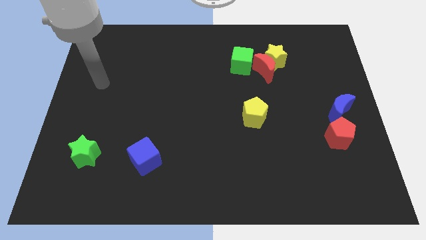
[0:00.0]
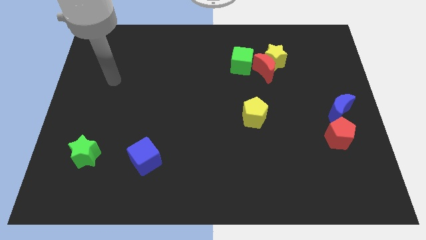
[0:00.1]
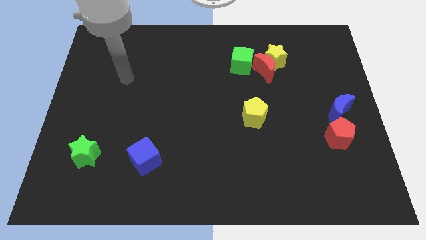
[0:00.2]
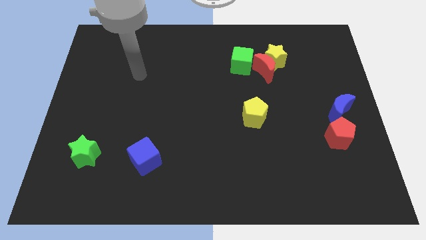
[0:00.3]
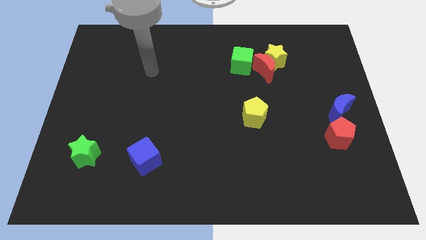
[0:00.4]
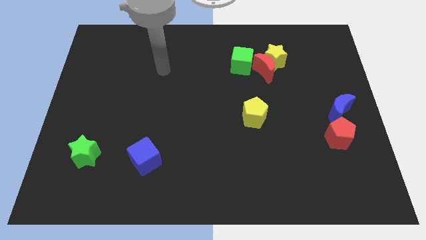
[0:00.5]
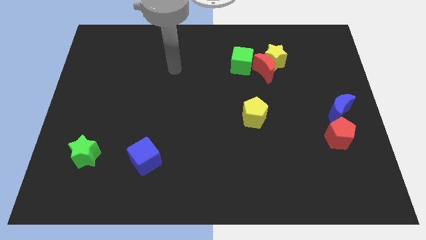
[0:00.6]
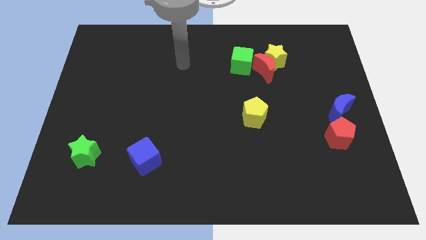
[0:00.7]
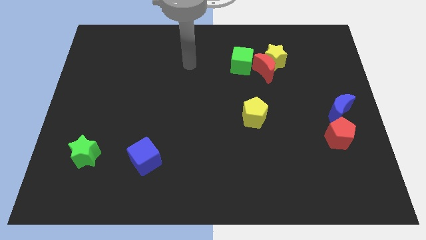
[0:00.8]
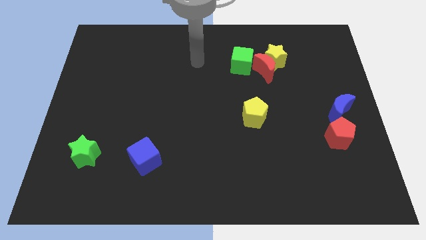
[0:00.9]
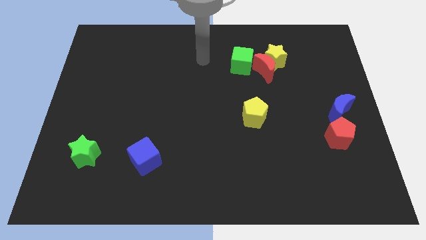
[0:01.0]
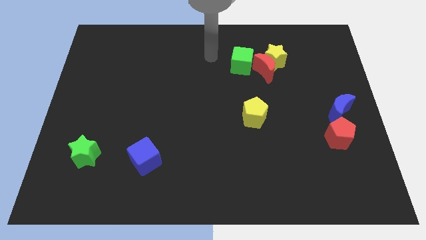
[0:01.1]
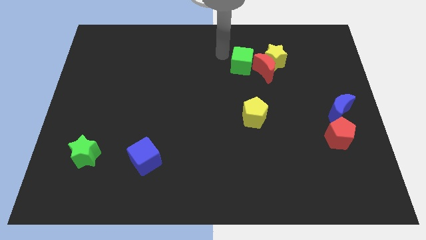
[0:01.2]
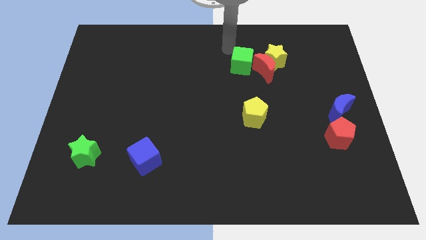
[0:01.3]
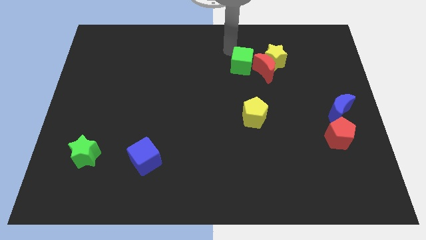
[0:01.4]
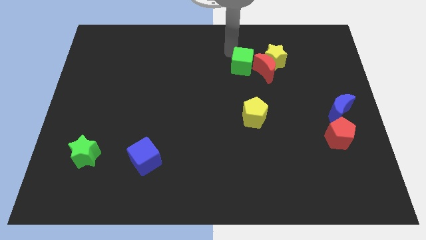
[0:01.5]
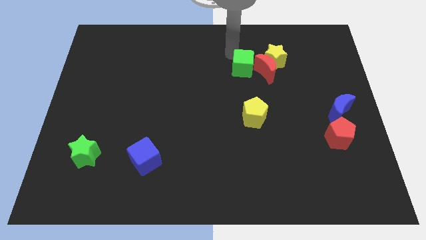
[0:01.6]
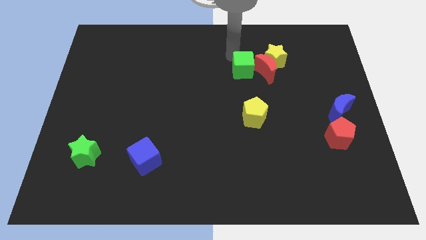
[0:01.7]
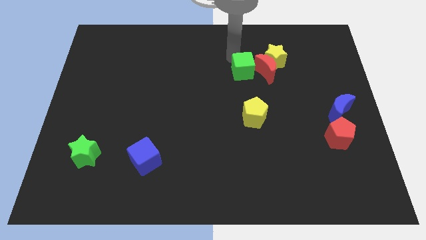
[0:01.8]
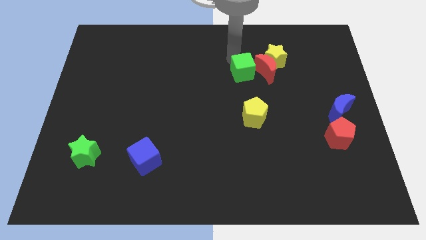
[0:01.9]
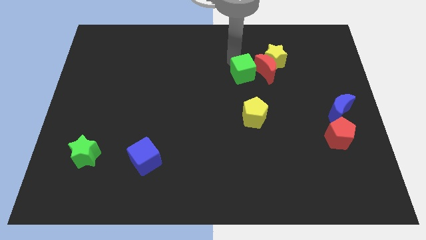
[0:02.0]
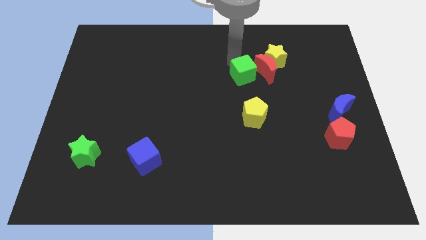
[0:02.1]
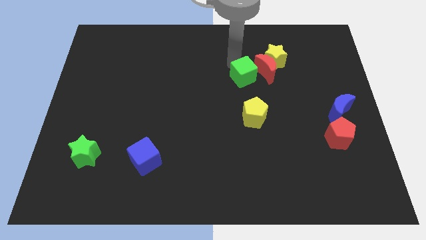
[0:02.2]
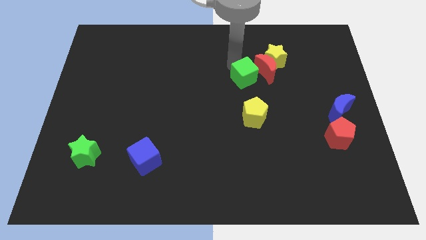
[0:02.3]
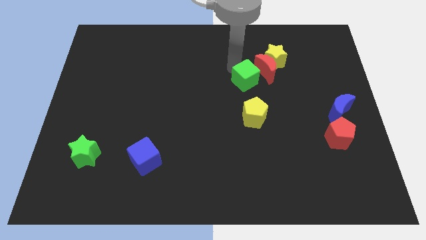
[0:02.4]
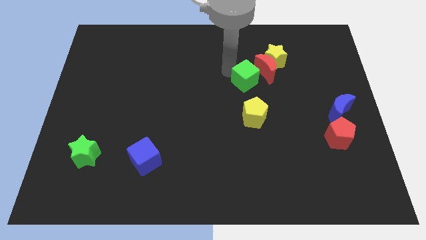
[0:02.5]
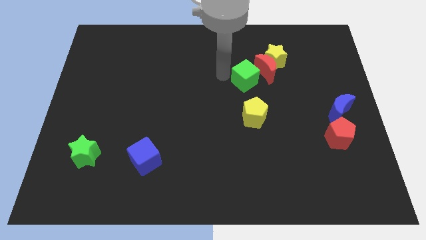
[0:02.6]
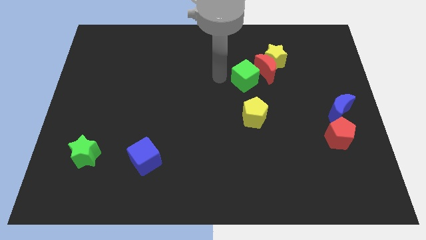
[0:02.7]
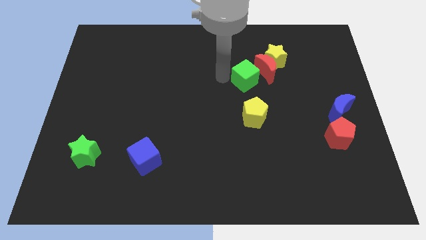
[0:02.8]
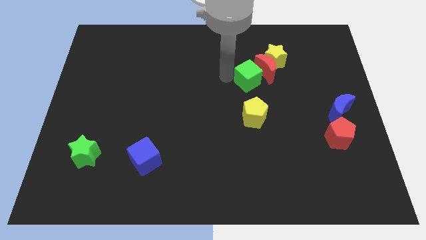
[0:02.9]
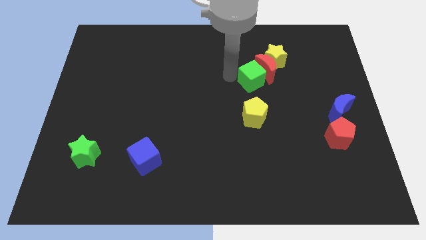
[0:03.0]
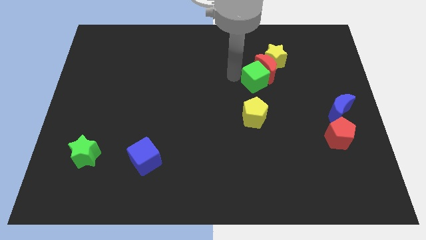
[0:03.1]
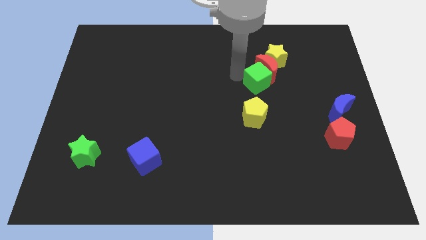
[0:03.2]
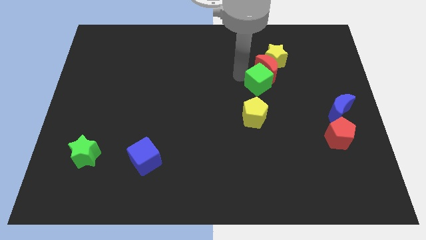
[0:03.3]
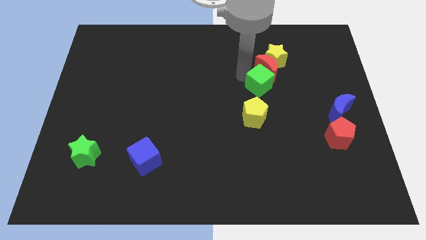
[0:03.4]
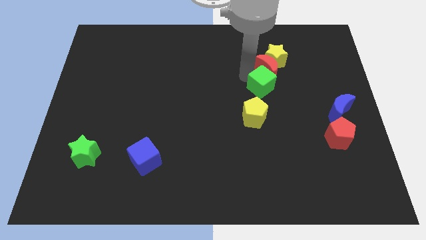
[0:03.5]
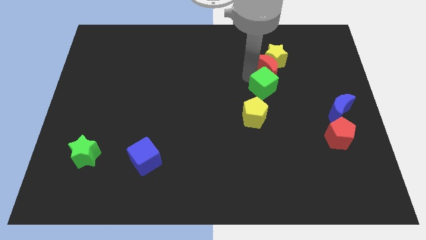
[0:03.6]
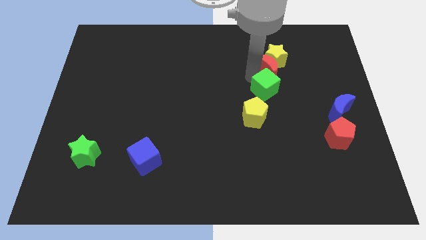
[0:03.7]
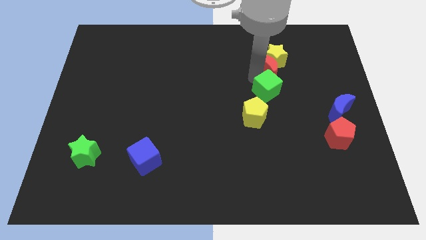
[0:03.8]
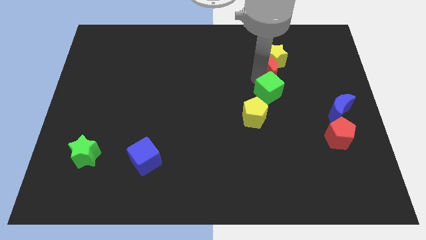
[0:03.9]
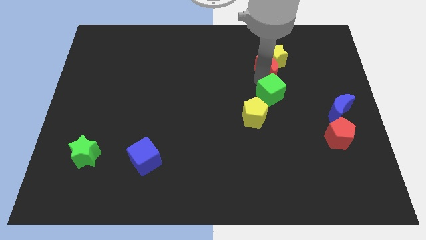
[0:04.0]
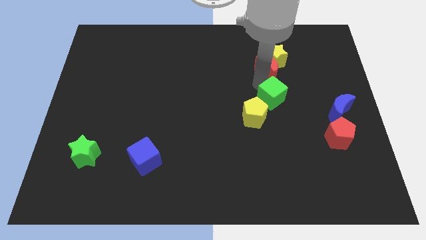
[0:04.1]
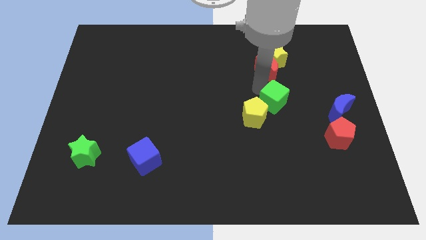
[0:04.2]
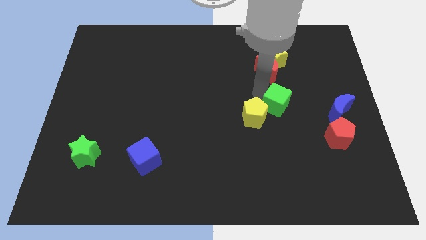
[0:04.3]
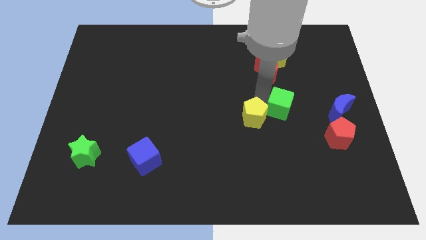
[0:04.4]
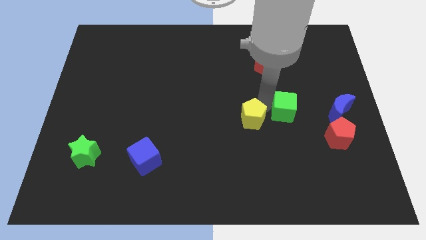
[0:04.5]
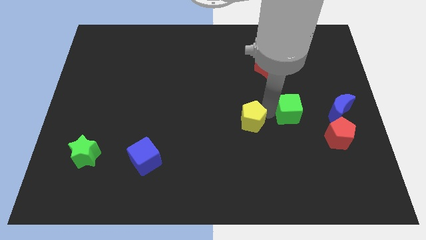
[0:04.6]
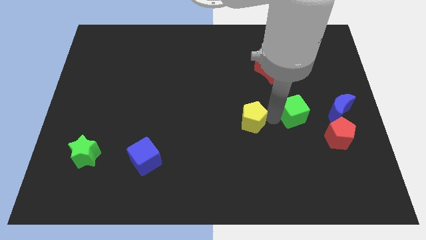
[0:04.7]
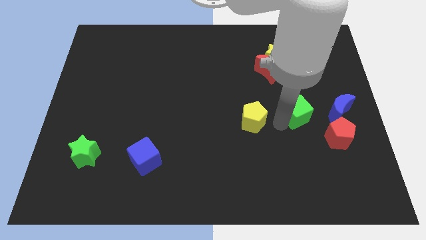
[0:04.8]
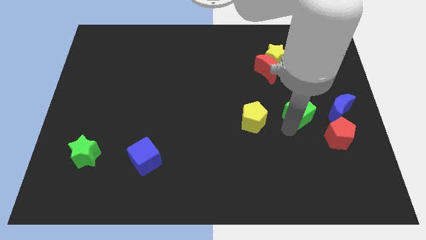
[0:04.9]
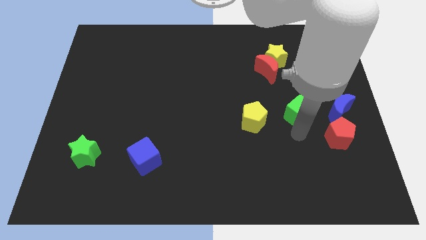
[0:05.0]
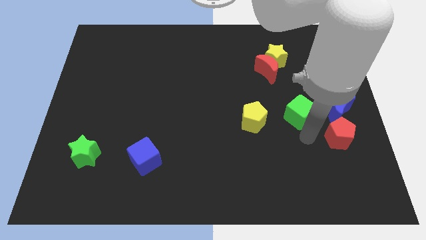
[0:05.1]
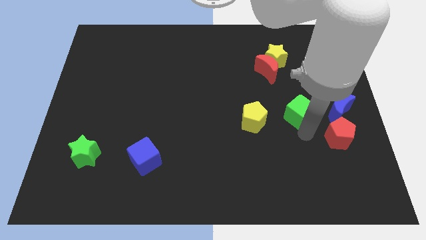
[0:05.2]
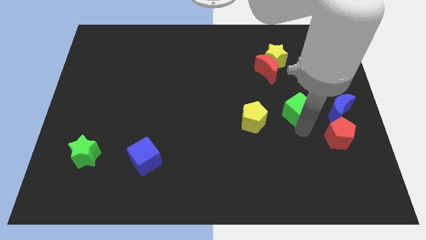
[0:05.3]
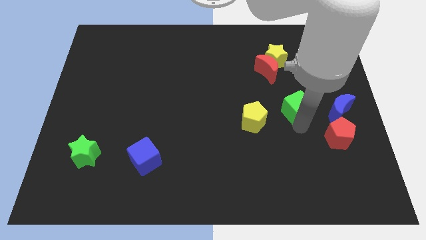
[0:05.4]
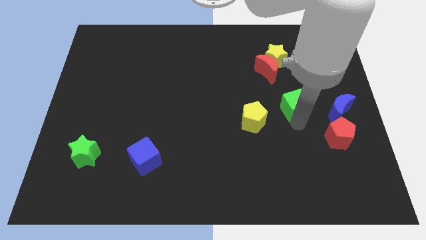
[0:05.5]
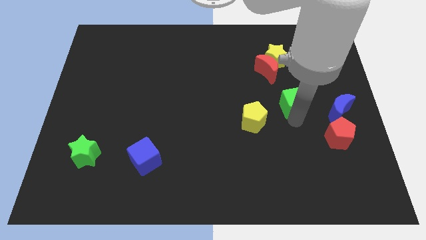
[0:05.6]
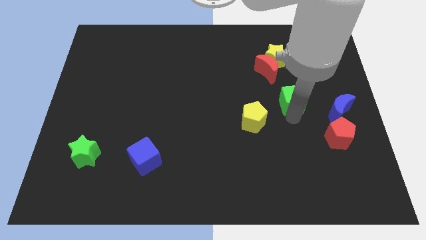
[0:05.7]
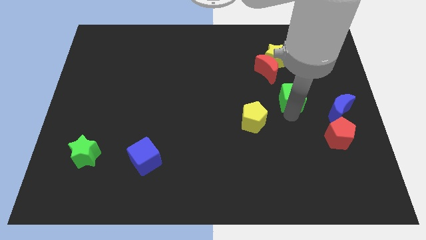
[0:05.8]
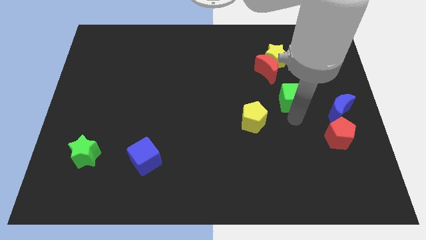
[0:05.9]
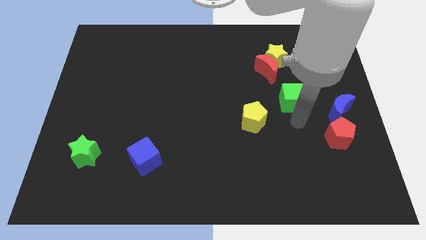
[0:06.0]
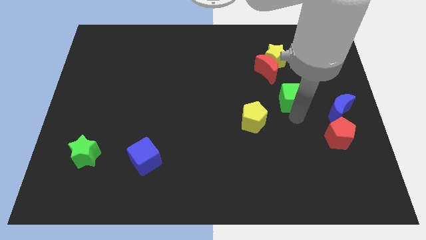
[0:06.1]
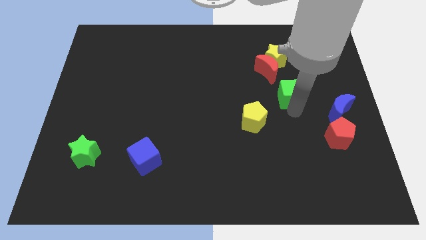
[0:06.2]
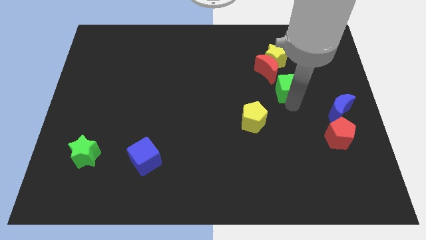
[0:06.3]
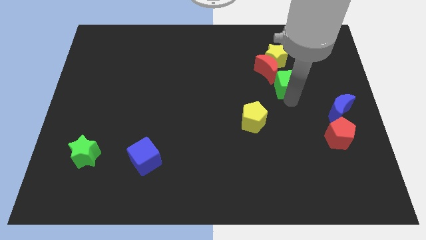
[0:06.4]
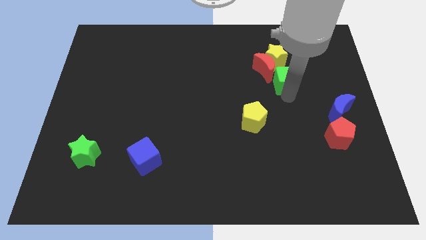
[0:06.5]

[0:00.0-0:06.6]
move the green cube to the right of the red moon
